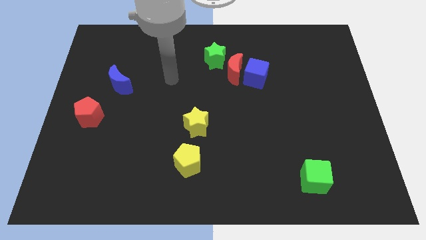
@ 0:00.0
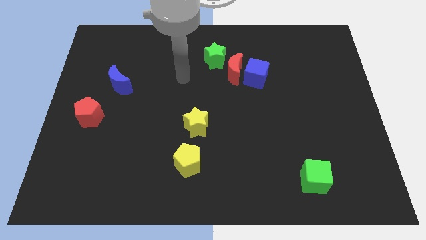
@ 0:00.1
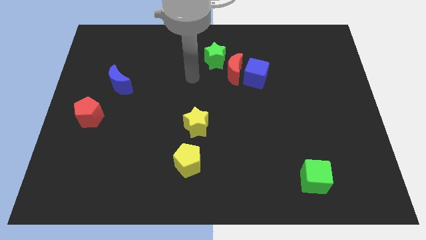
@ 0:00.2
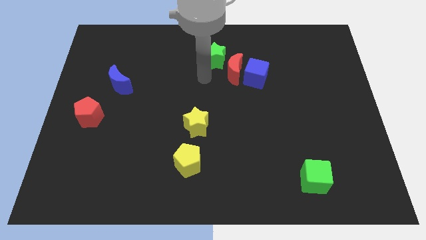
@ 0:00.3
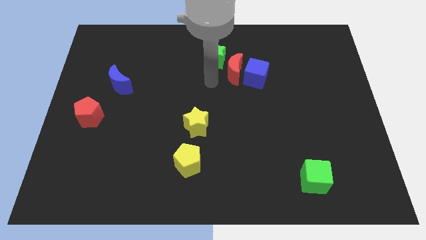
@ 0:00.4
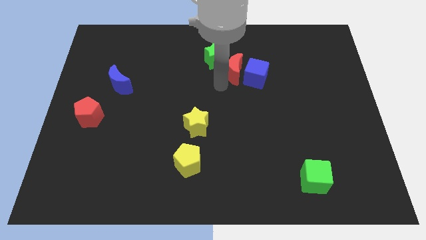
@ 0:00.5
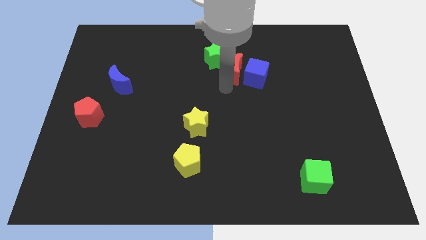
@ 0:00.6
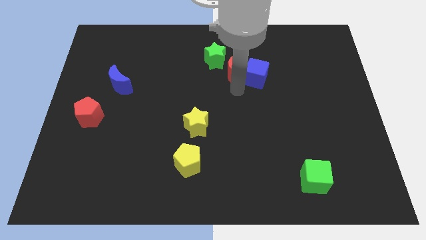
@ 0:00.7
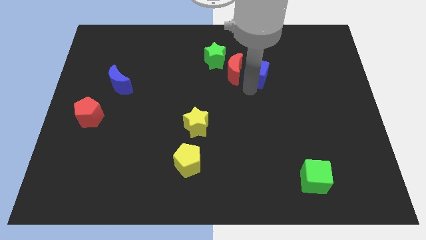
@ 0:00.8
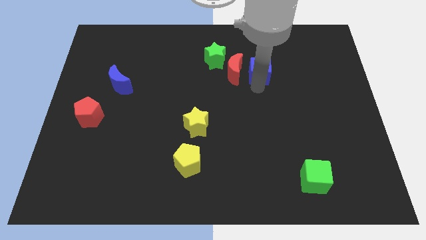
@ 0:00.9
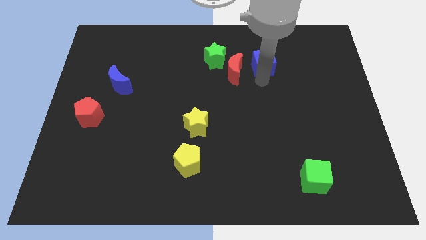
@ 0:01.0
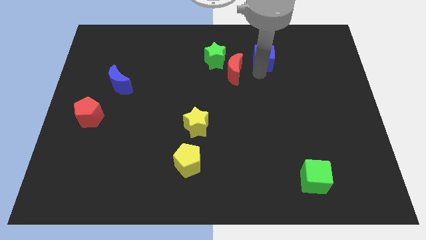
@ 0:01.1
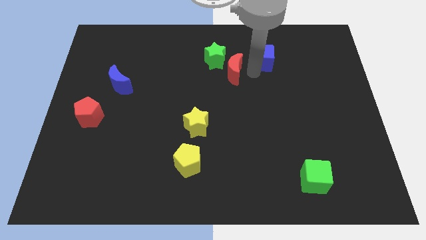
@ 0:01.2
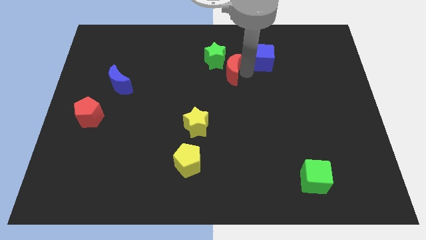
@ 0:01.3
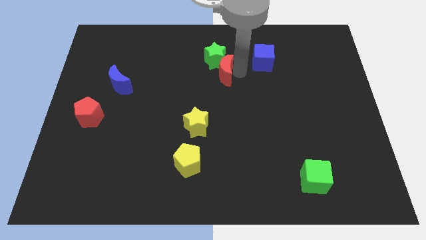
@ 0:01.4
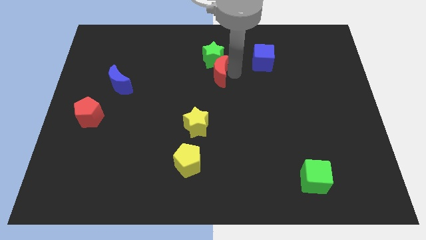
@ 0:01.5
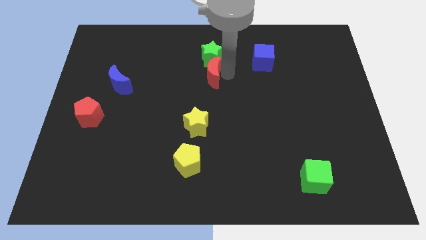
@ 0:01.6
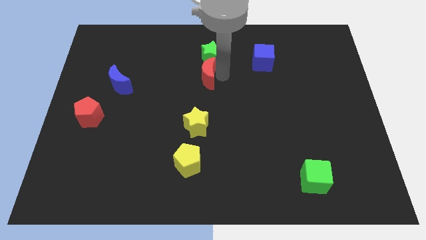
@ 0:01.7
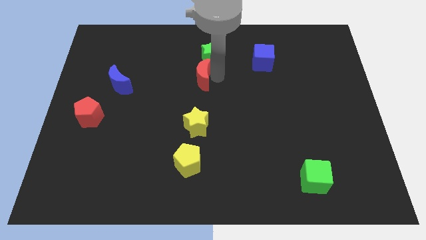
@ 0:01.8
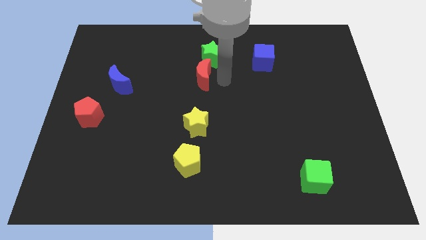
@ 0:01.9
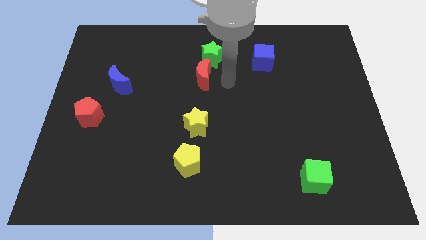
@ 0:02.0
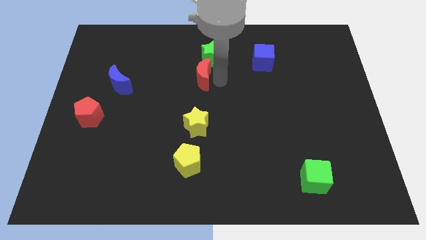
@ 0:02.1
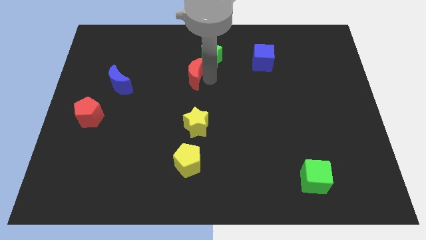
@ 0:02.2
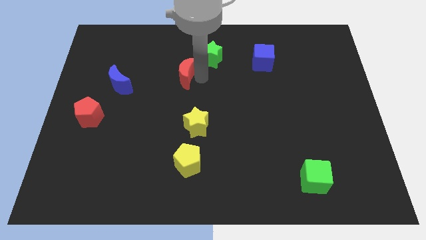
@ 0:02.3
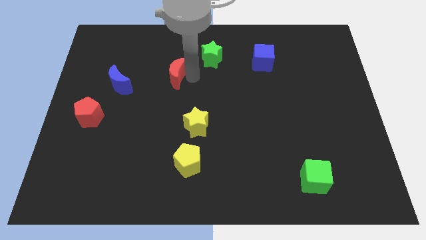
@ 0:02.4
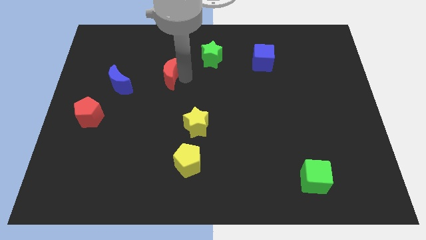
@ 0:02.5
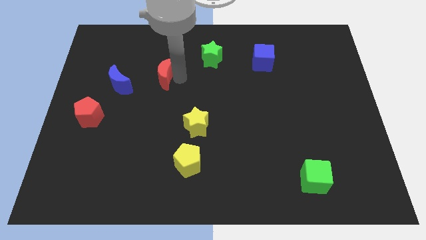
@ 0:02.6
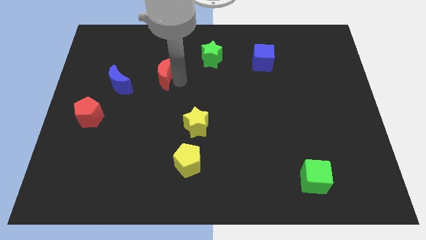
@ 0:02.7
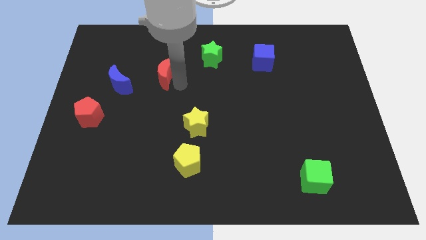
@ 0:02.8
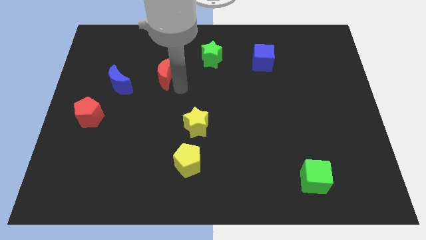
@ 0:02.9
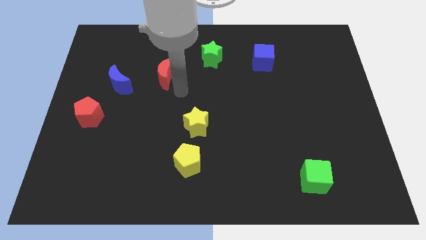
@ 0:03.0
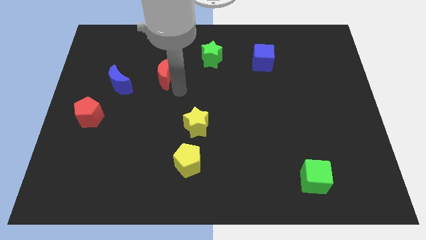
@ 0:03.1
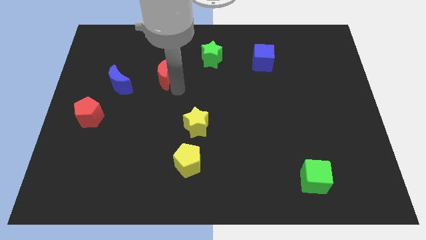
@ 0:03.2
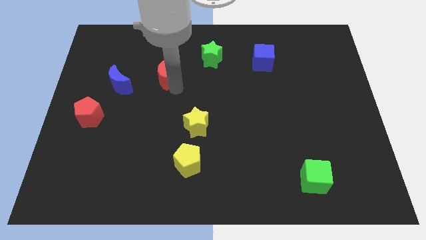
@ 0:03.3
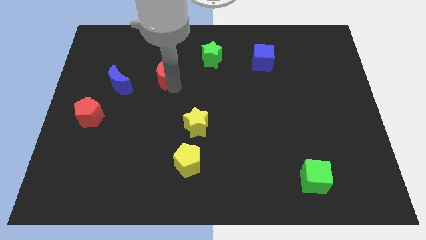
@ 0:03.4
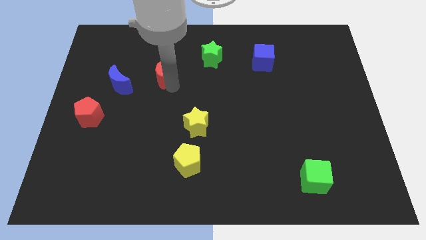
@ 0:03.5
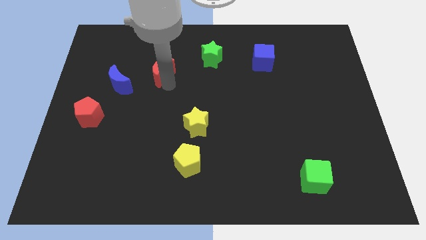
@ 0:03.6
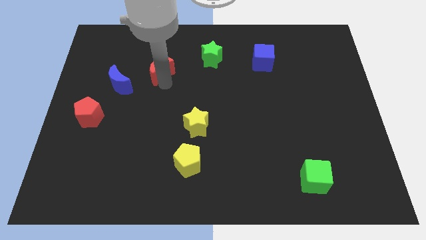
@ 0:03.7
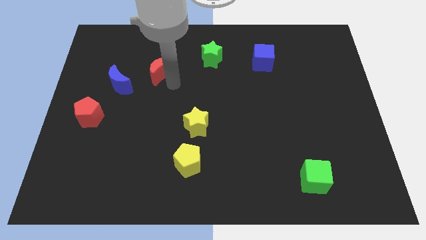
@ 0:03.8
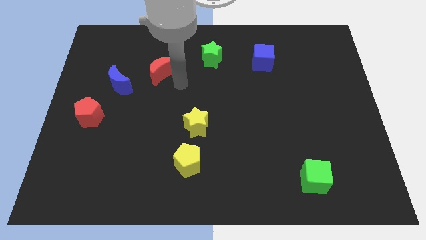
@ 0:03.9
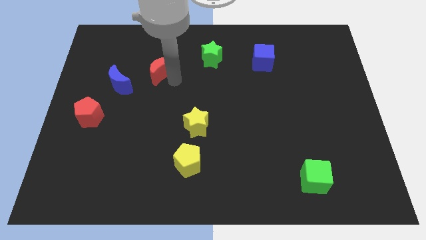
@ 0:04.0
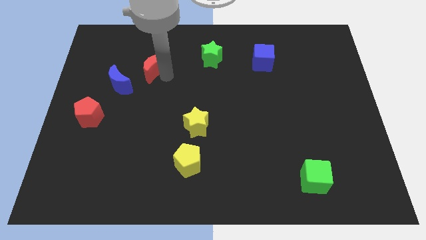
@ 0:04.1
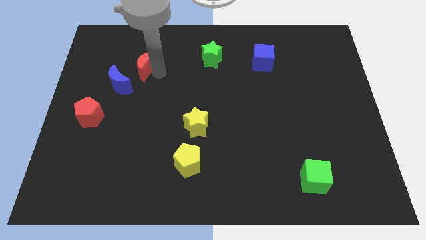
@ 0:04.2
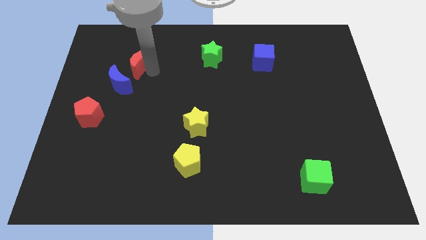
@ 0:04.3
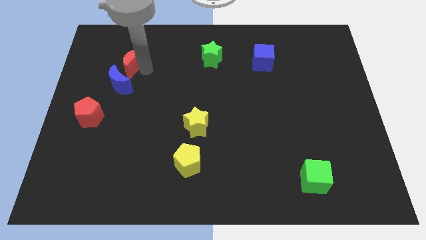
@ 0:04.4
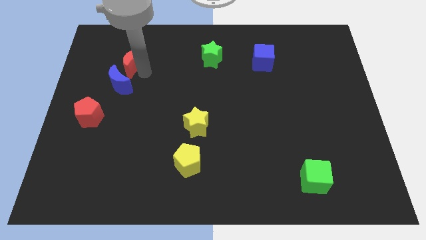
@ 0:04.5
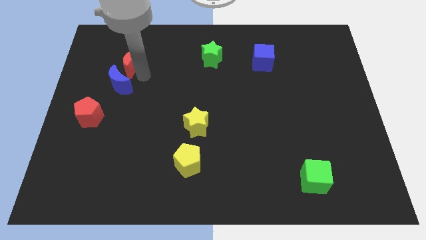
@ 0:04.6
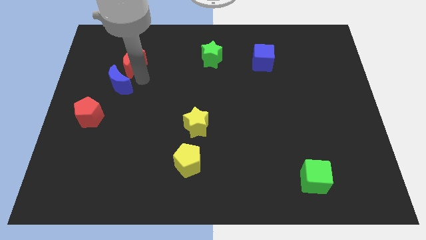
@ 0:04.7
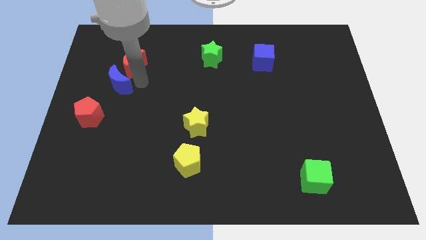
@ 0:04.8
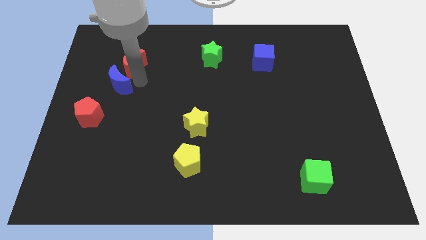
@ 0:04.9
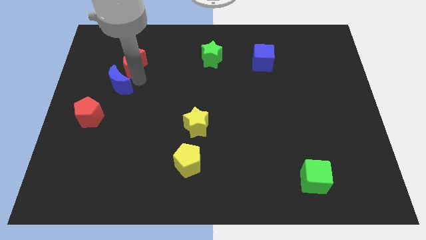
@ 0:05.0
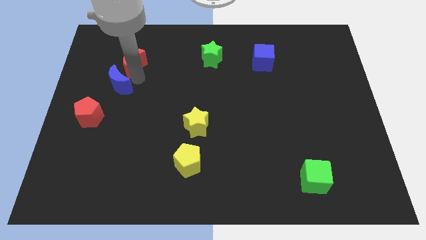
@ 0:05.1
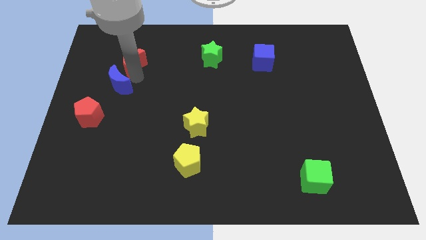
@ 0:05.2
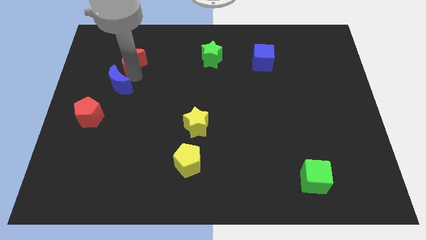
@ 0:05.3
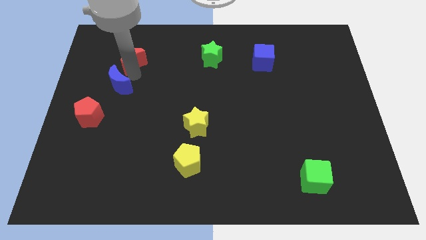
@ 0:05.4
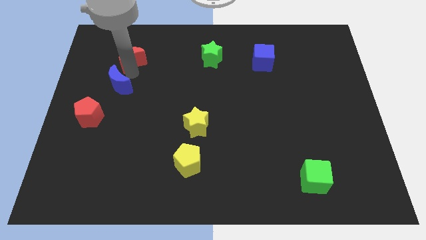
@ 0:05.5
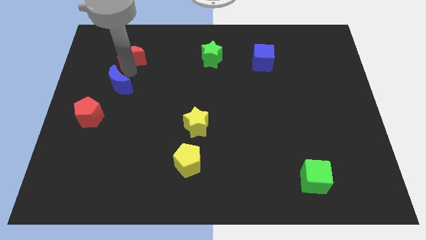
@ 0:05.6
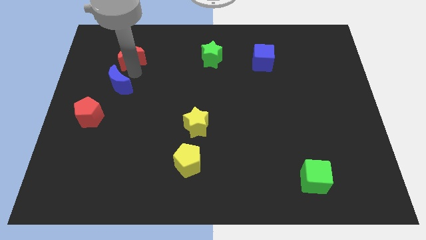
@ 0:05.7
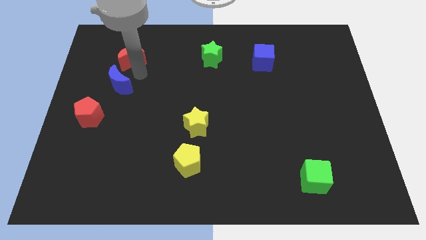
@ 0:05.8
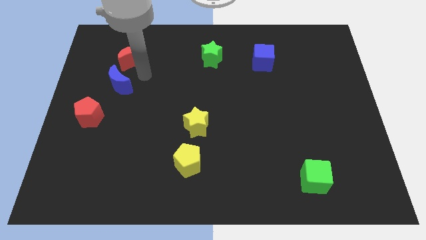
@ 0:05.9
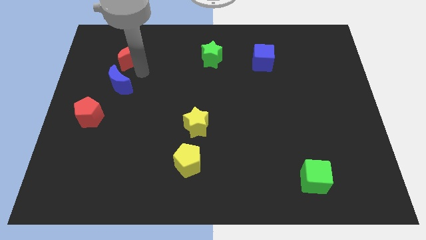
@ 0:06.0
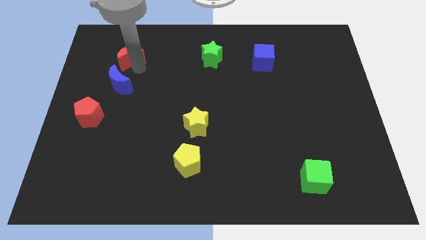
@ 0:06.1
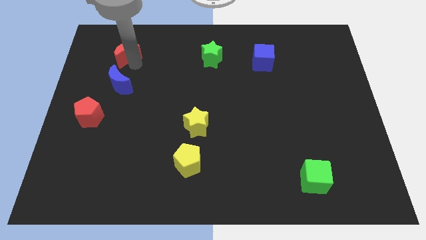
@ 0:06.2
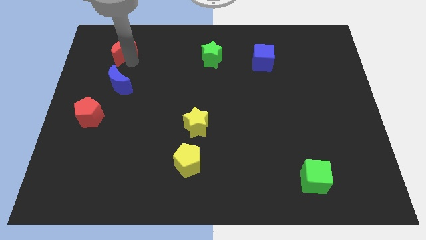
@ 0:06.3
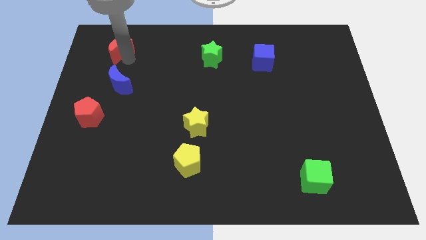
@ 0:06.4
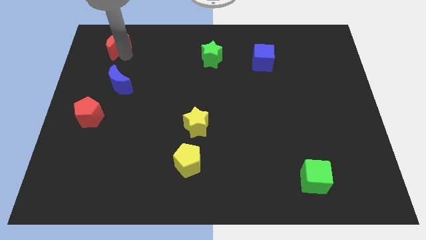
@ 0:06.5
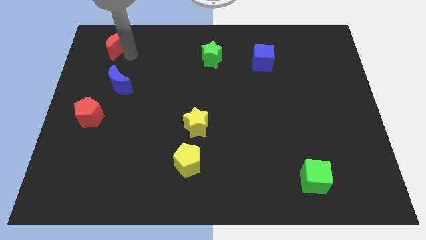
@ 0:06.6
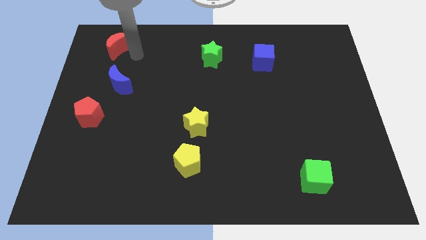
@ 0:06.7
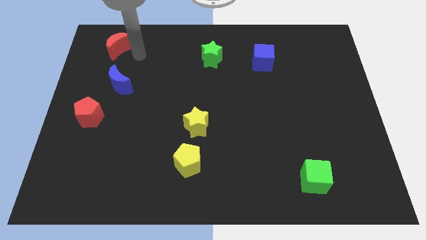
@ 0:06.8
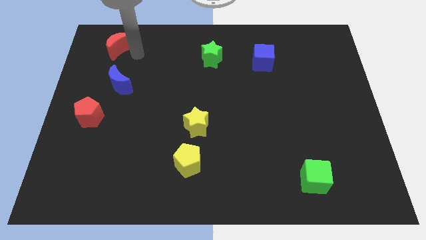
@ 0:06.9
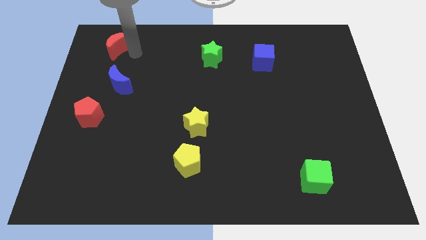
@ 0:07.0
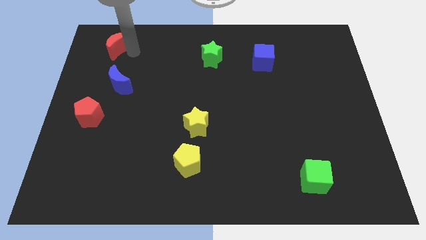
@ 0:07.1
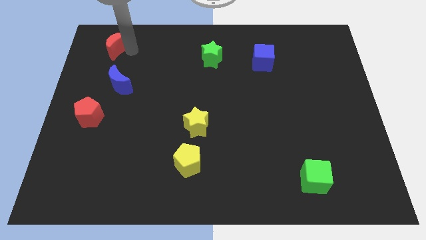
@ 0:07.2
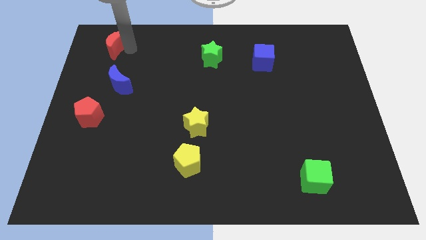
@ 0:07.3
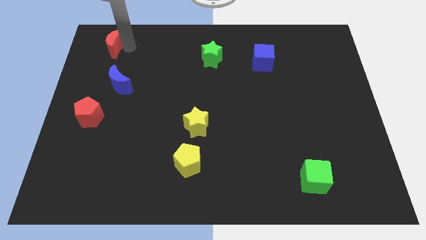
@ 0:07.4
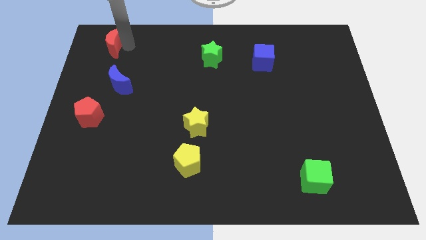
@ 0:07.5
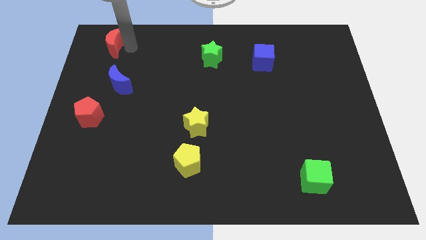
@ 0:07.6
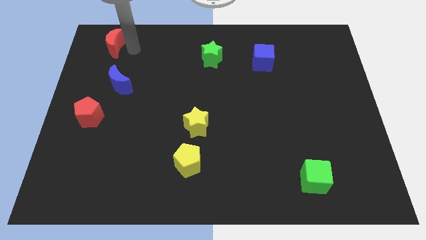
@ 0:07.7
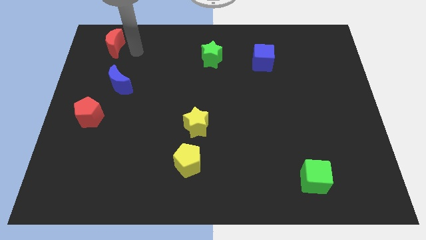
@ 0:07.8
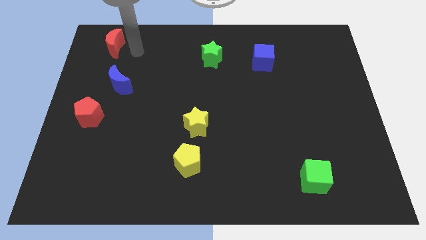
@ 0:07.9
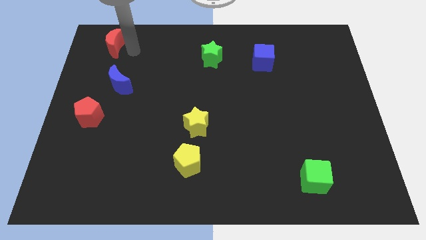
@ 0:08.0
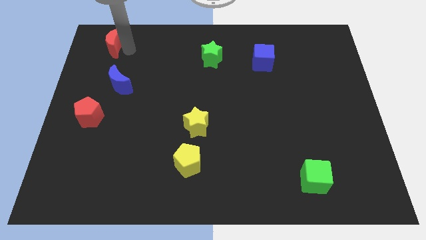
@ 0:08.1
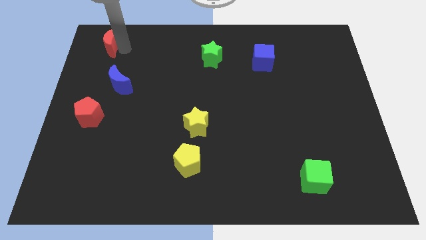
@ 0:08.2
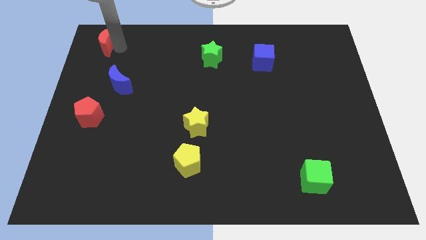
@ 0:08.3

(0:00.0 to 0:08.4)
slide the red moon to the top left corner
